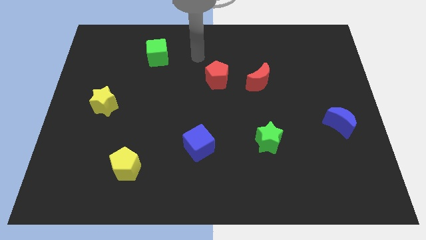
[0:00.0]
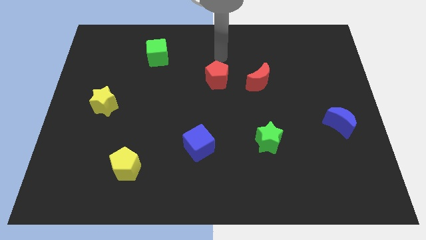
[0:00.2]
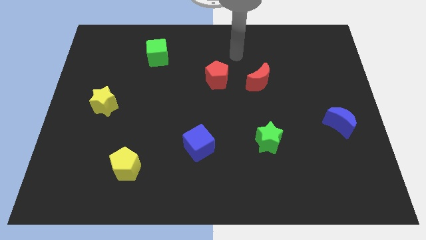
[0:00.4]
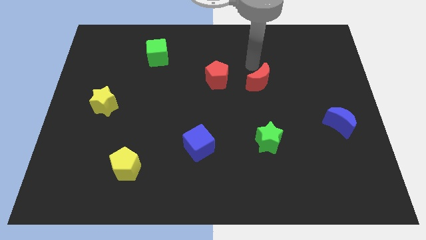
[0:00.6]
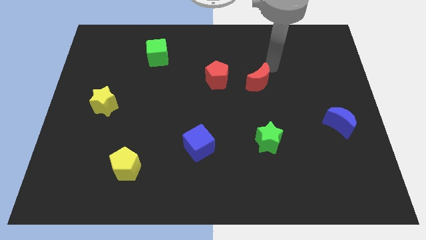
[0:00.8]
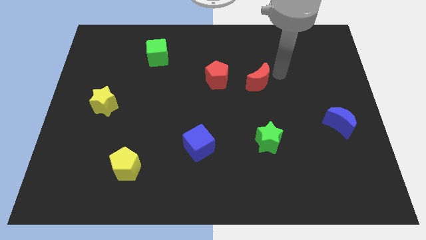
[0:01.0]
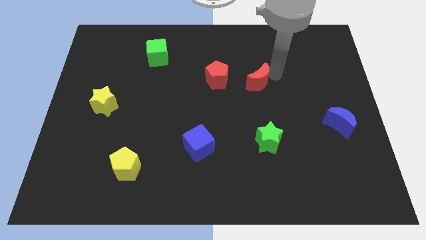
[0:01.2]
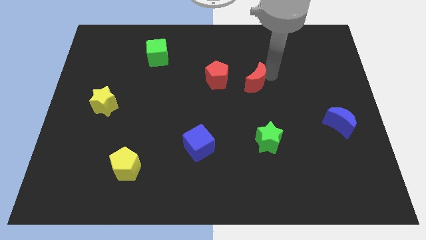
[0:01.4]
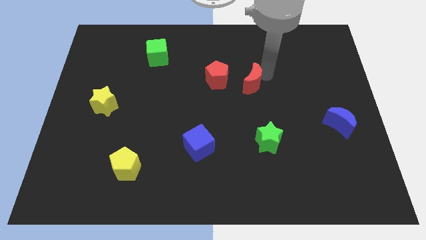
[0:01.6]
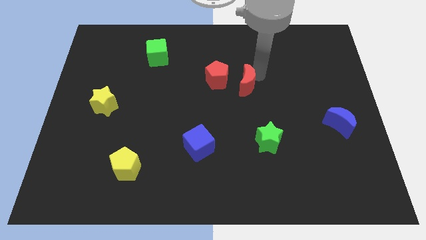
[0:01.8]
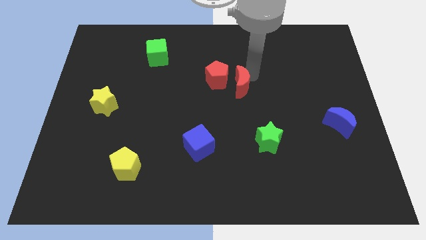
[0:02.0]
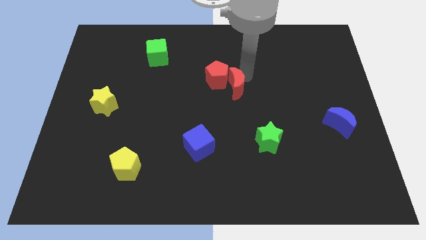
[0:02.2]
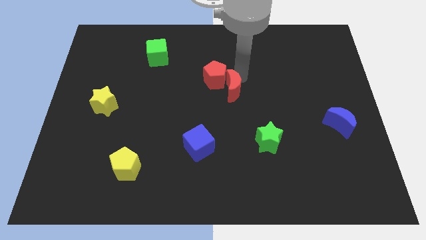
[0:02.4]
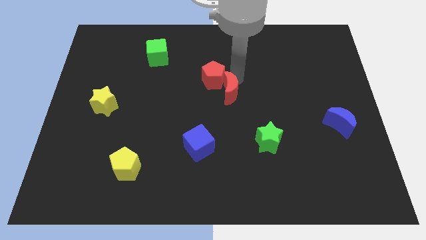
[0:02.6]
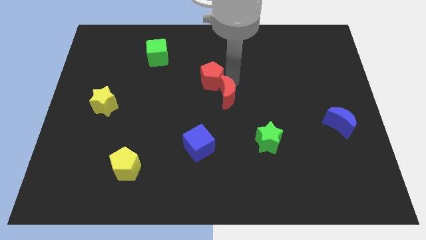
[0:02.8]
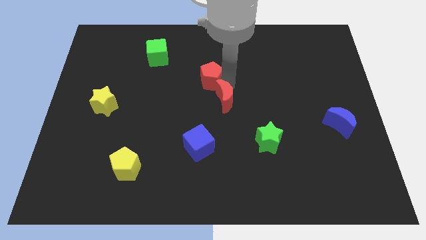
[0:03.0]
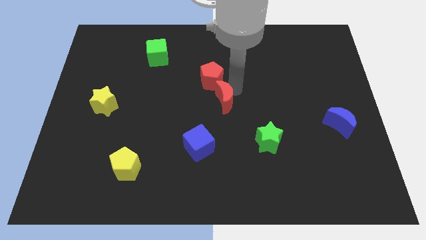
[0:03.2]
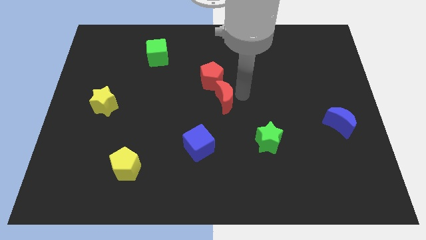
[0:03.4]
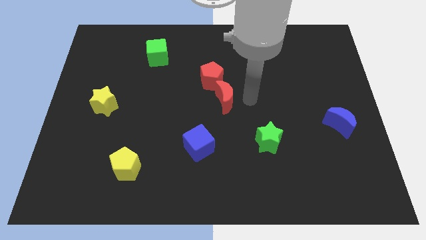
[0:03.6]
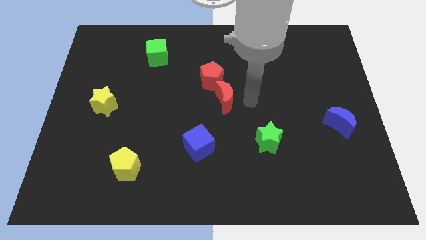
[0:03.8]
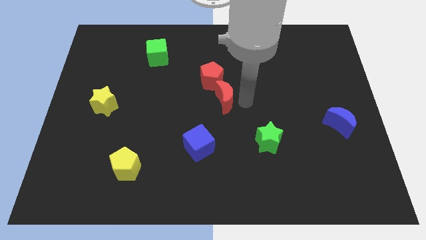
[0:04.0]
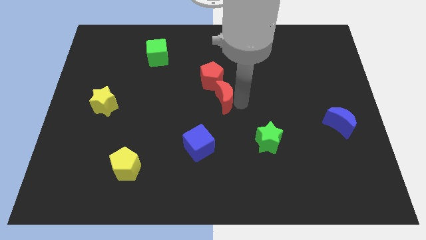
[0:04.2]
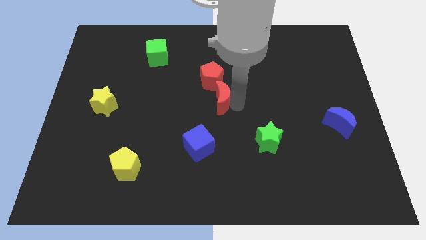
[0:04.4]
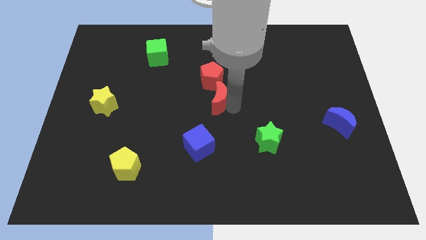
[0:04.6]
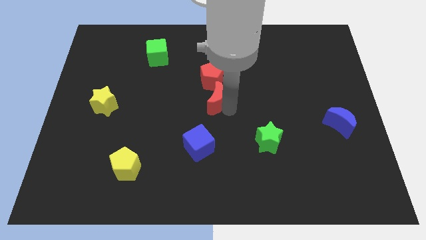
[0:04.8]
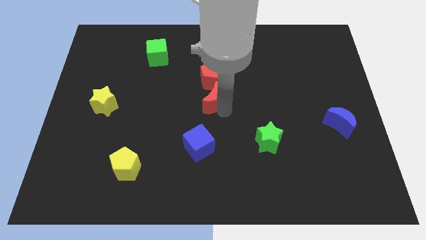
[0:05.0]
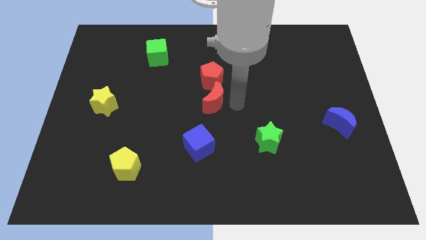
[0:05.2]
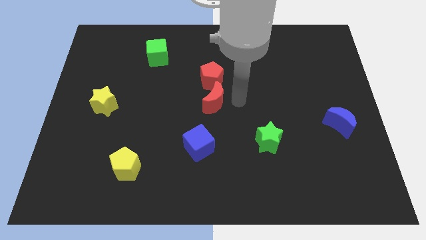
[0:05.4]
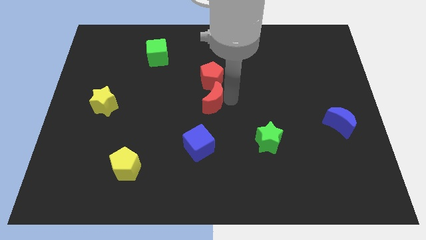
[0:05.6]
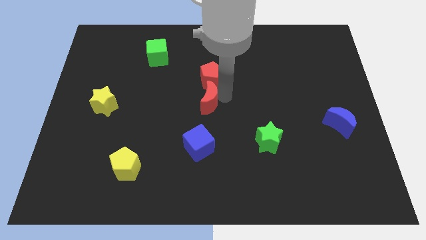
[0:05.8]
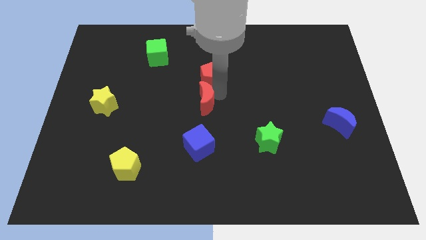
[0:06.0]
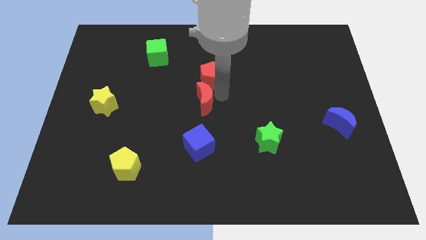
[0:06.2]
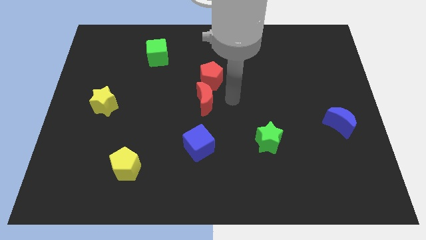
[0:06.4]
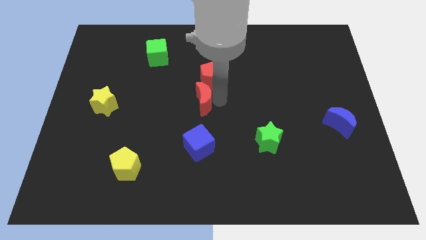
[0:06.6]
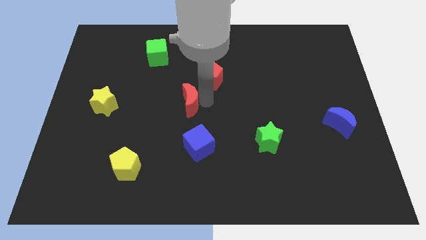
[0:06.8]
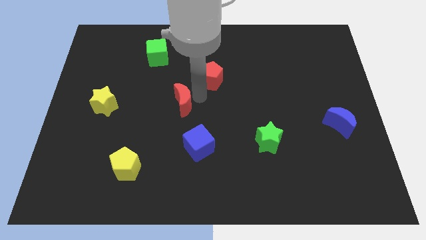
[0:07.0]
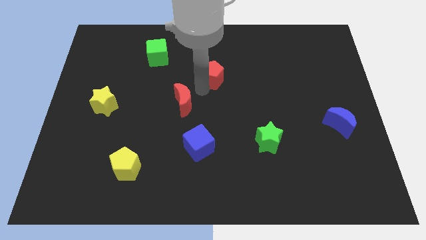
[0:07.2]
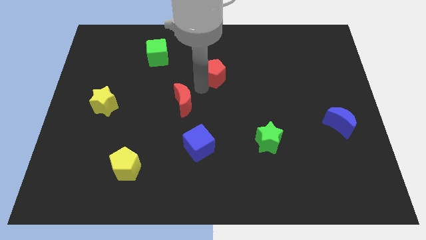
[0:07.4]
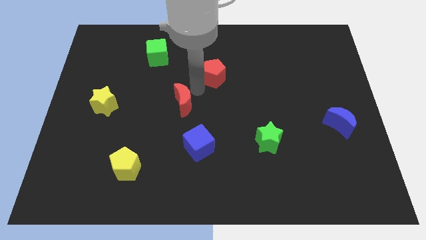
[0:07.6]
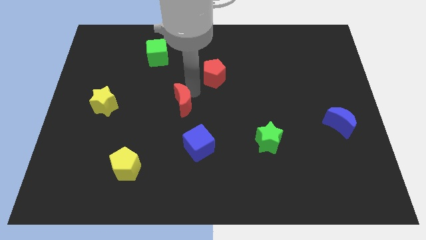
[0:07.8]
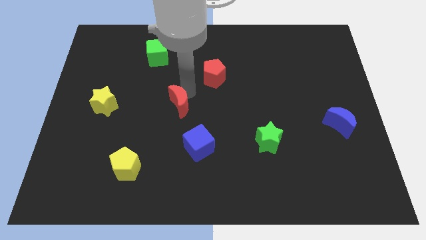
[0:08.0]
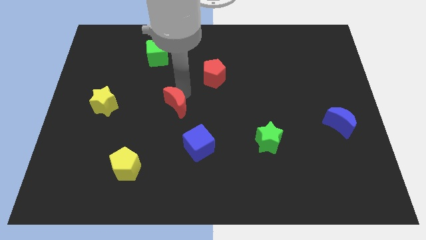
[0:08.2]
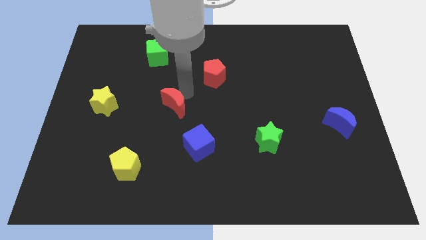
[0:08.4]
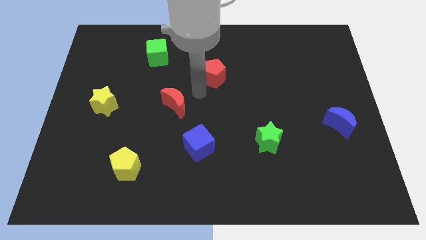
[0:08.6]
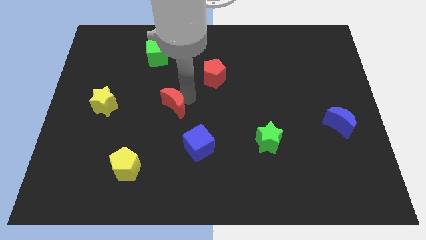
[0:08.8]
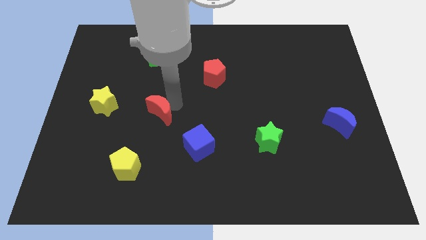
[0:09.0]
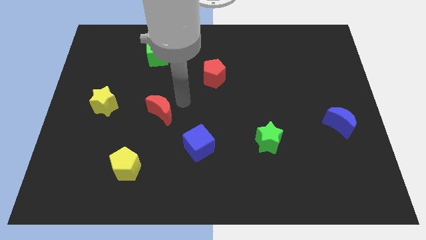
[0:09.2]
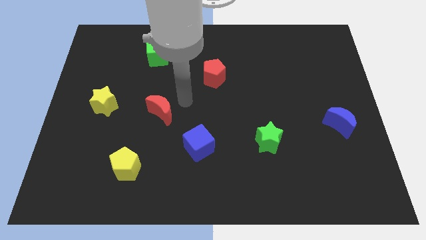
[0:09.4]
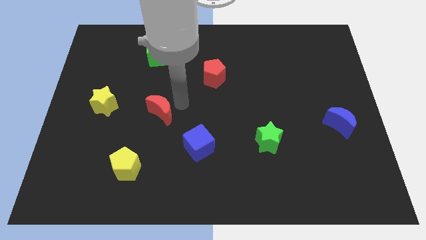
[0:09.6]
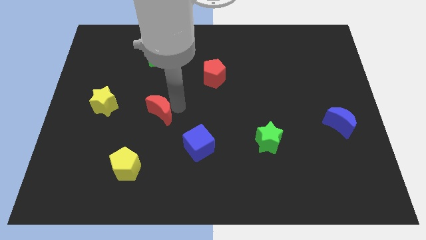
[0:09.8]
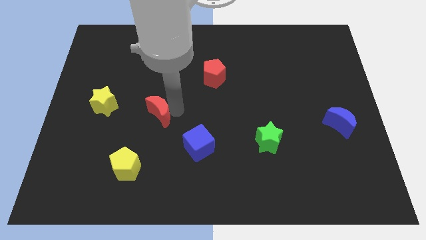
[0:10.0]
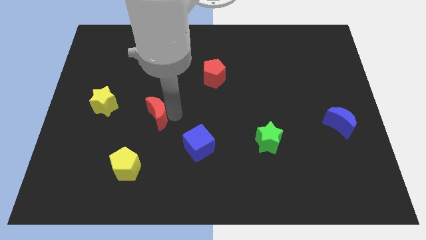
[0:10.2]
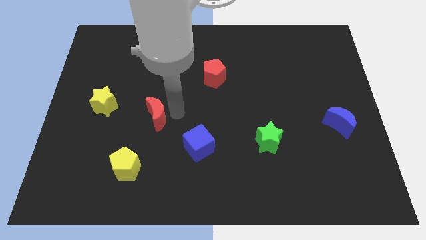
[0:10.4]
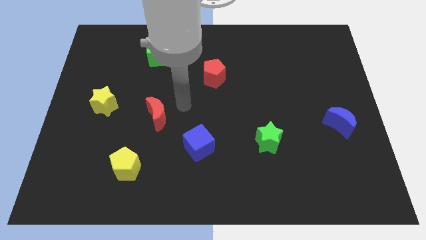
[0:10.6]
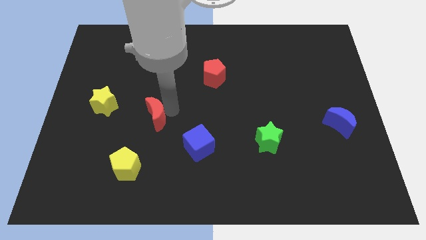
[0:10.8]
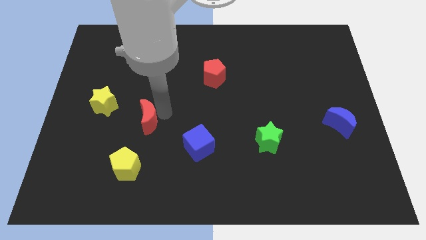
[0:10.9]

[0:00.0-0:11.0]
put the red moon to the top of the yellow pentagon

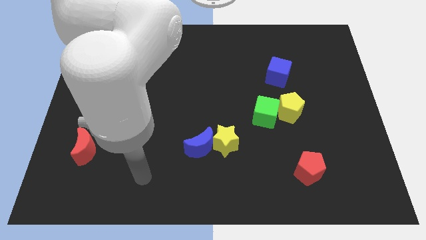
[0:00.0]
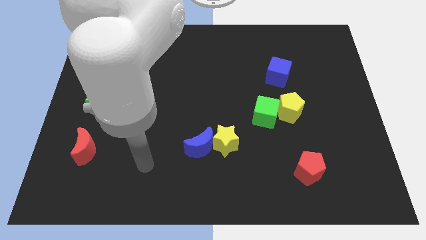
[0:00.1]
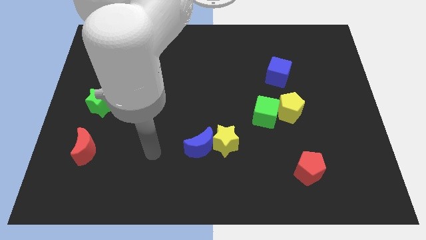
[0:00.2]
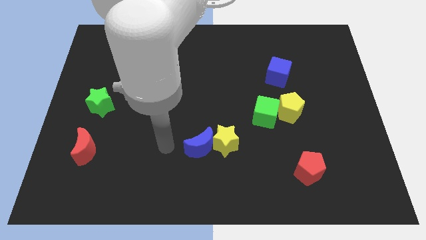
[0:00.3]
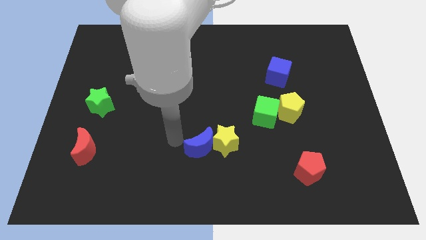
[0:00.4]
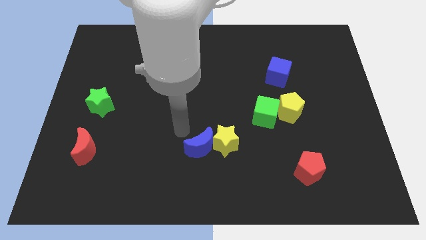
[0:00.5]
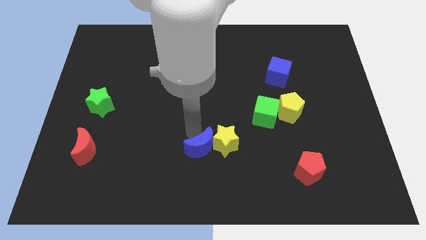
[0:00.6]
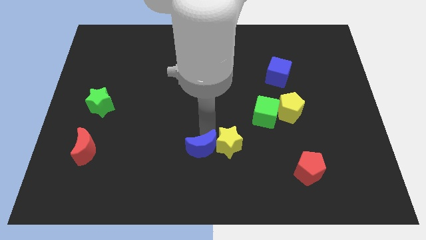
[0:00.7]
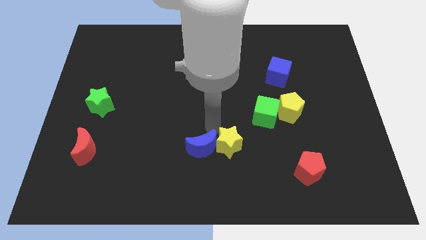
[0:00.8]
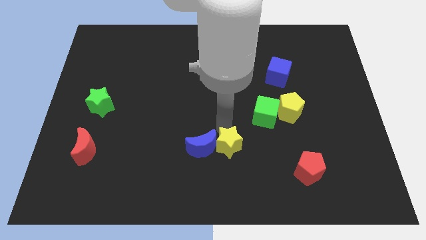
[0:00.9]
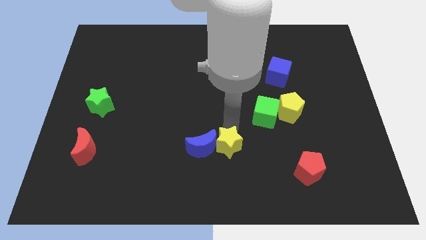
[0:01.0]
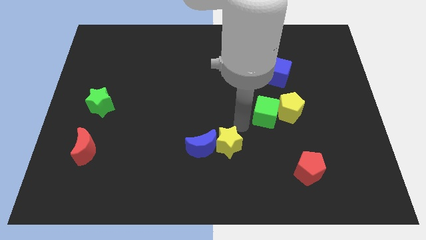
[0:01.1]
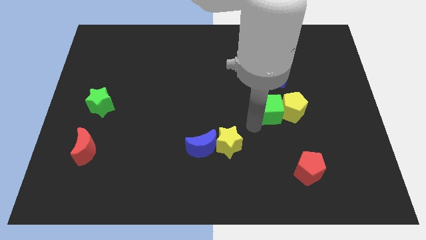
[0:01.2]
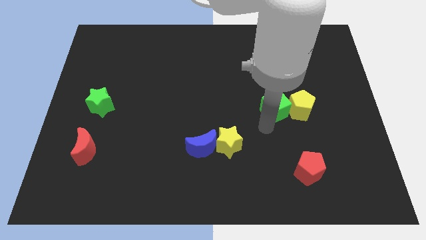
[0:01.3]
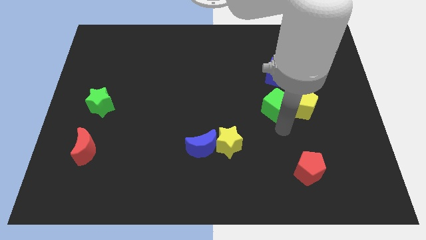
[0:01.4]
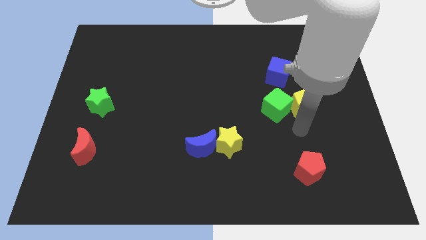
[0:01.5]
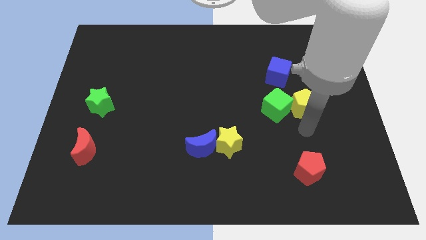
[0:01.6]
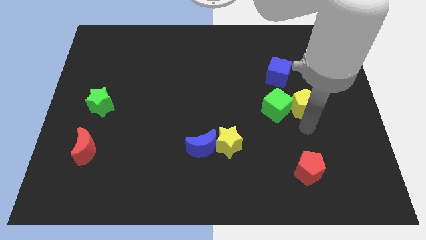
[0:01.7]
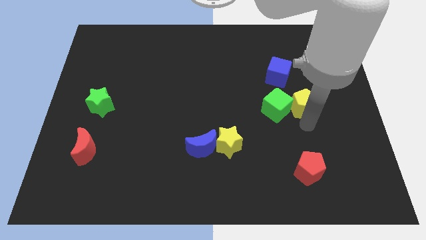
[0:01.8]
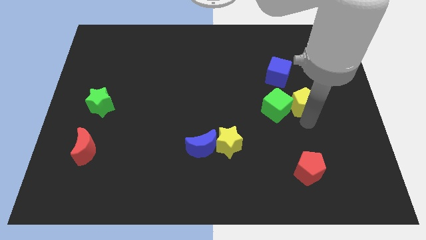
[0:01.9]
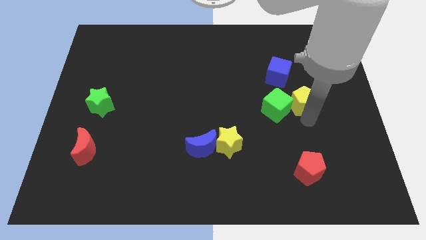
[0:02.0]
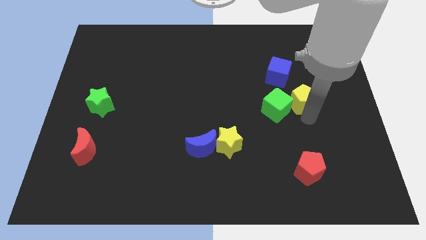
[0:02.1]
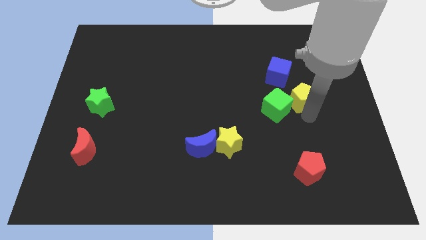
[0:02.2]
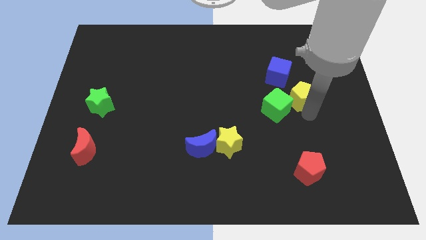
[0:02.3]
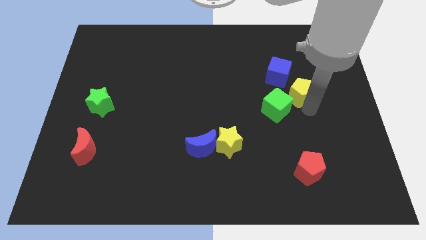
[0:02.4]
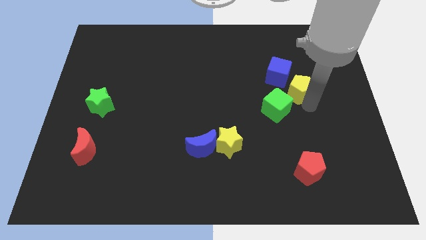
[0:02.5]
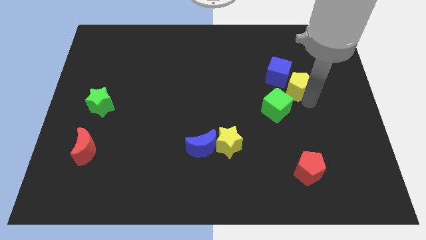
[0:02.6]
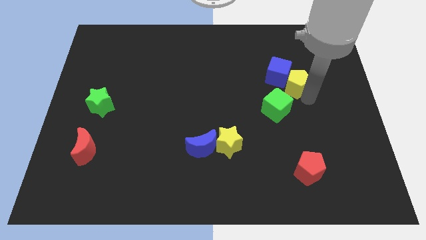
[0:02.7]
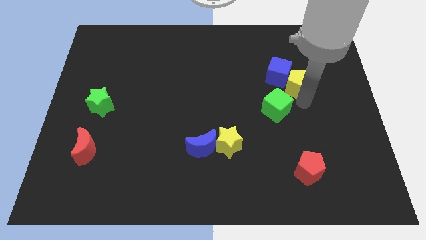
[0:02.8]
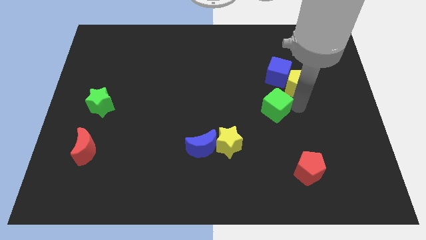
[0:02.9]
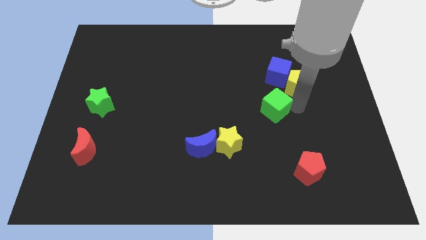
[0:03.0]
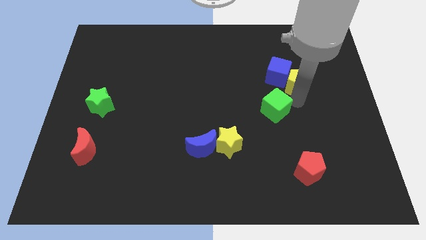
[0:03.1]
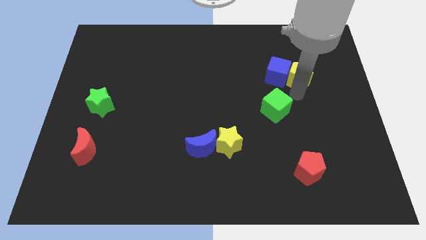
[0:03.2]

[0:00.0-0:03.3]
push the yellow pentagon to the top right side of the blue cube
